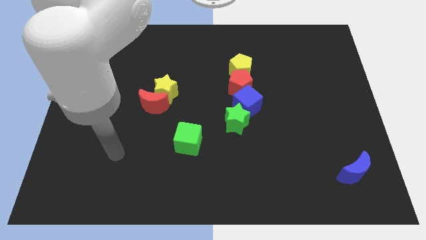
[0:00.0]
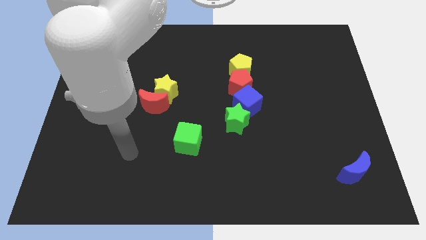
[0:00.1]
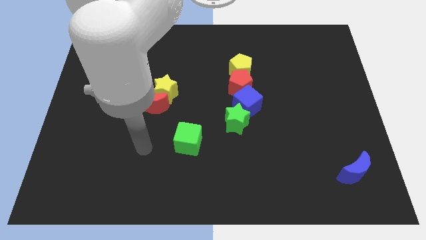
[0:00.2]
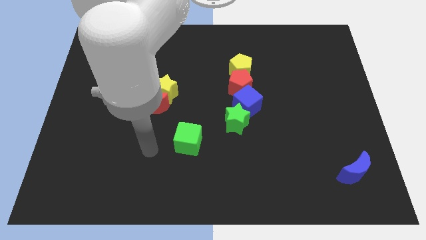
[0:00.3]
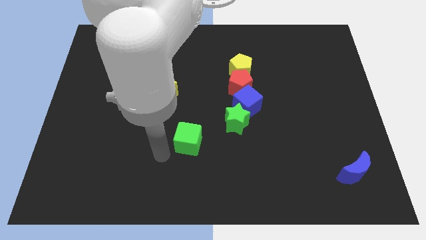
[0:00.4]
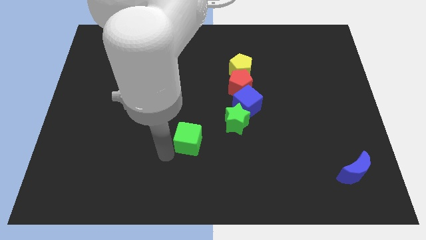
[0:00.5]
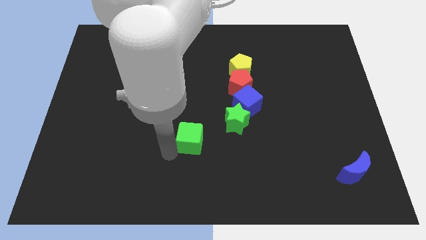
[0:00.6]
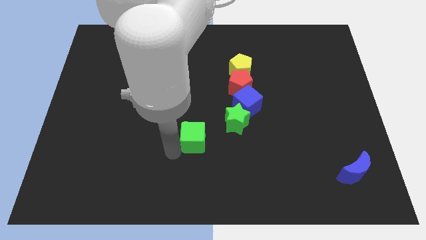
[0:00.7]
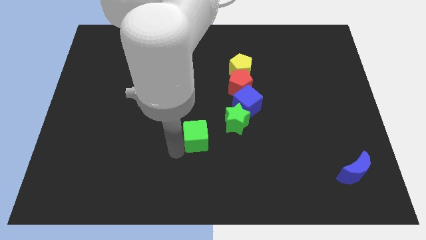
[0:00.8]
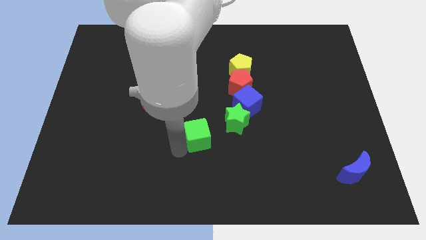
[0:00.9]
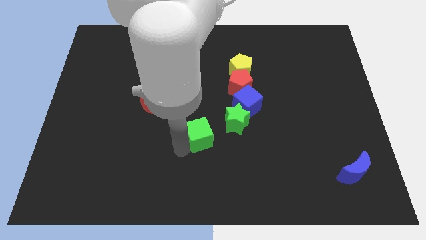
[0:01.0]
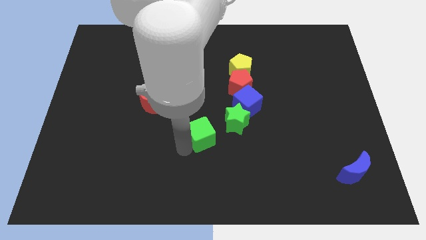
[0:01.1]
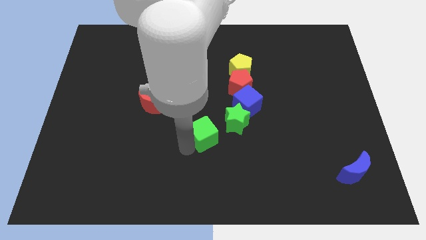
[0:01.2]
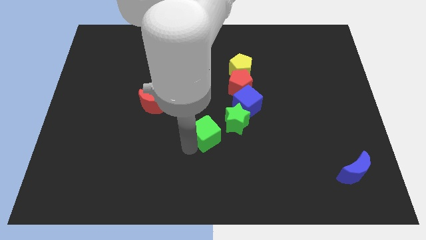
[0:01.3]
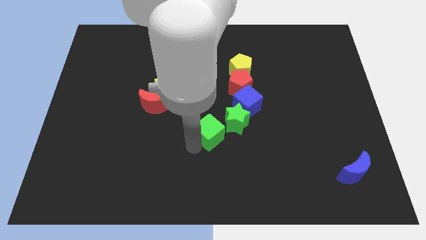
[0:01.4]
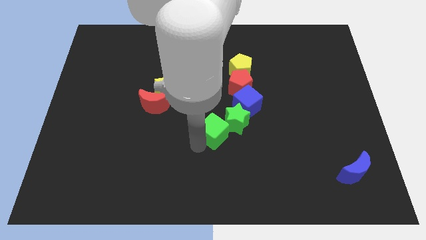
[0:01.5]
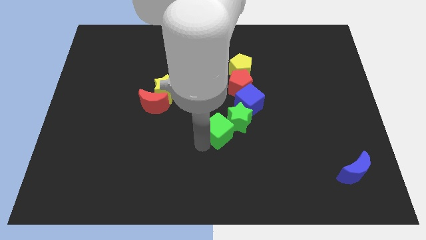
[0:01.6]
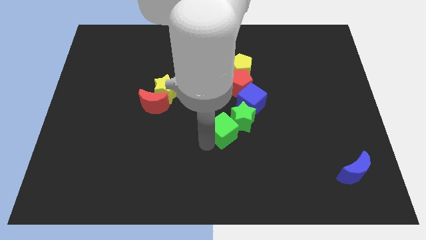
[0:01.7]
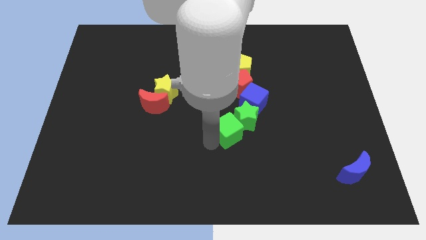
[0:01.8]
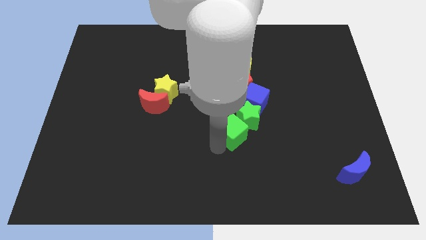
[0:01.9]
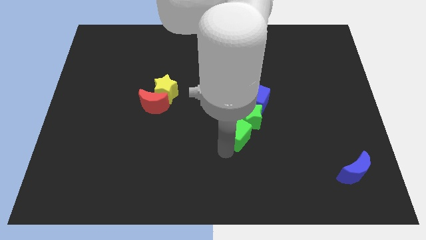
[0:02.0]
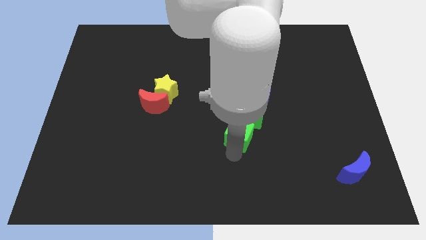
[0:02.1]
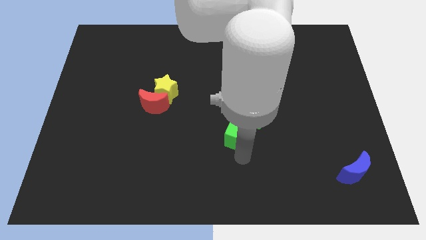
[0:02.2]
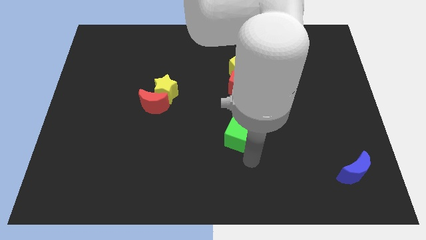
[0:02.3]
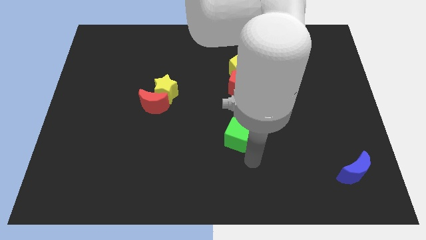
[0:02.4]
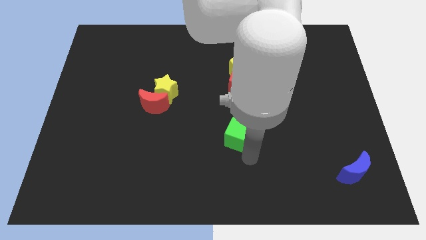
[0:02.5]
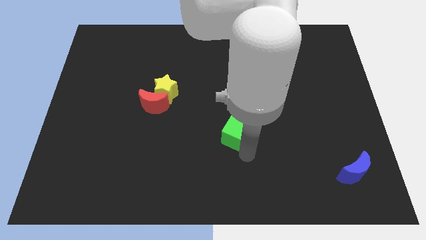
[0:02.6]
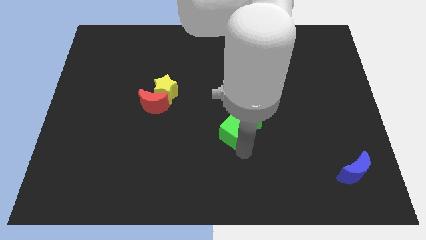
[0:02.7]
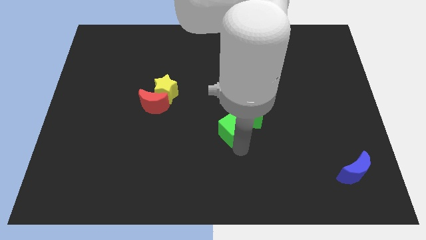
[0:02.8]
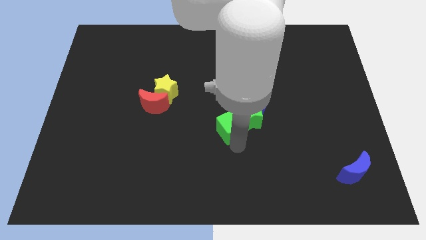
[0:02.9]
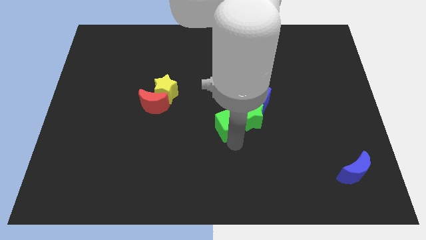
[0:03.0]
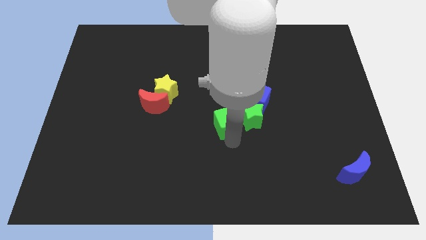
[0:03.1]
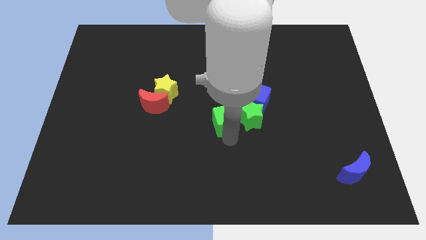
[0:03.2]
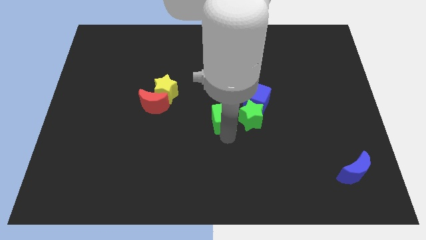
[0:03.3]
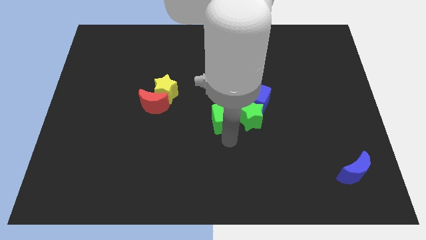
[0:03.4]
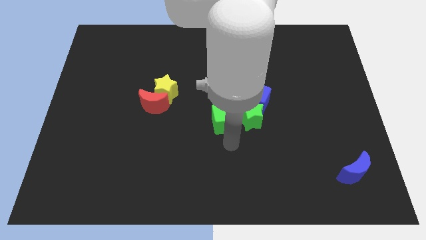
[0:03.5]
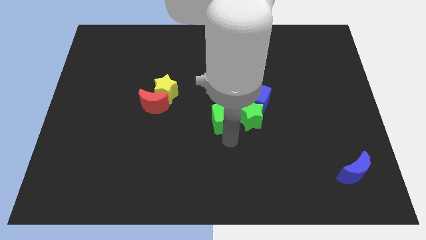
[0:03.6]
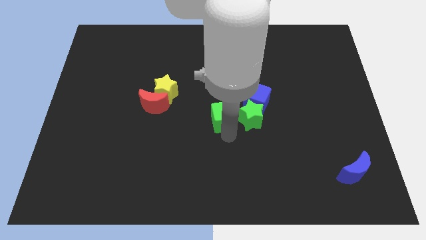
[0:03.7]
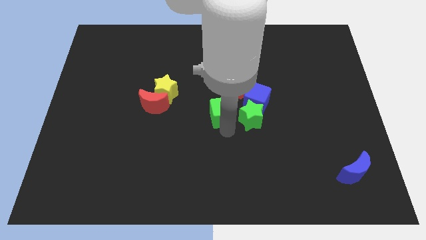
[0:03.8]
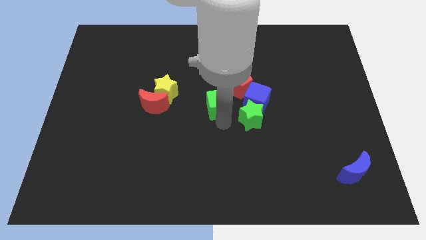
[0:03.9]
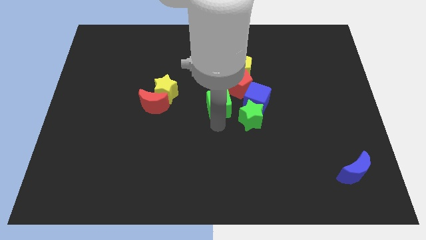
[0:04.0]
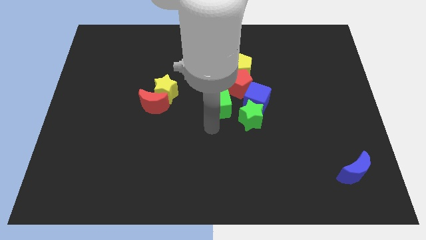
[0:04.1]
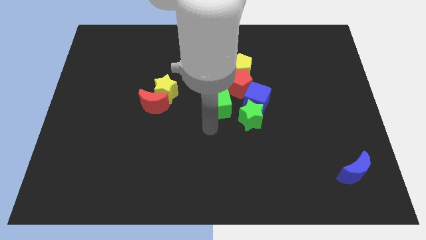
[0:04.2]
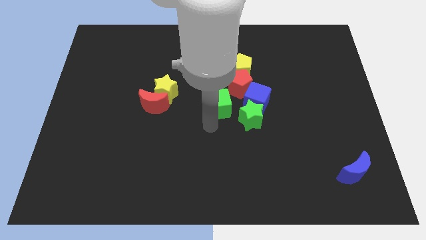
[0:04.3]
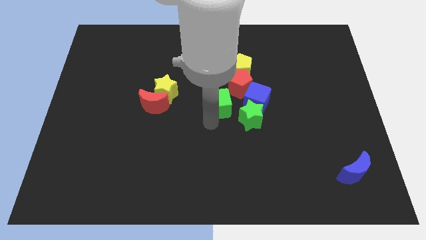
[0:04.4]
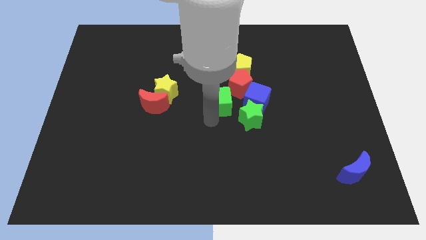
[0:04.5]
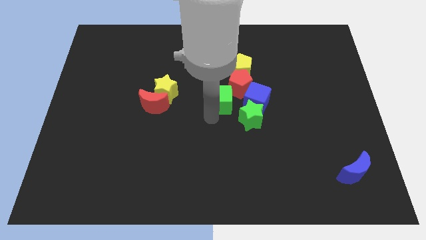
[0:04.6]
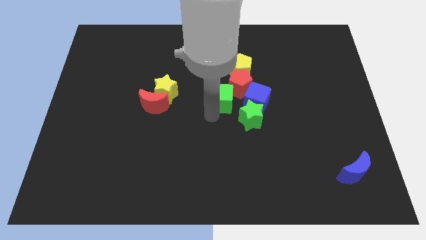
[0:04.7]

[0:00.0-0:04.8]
push the green cube next to the red pentagon

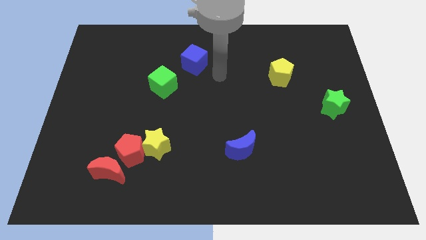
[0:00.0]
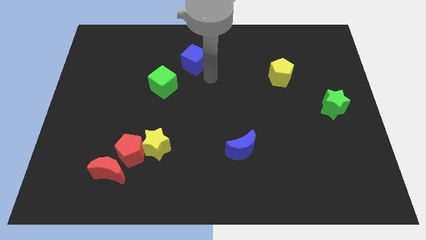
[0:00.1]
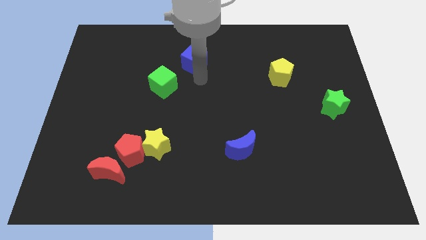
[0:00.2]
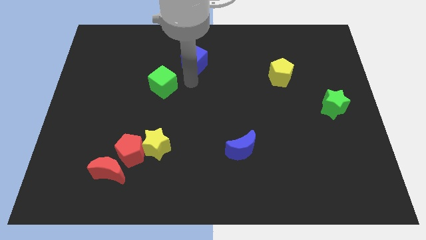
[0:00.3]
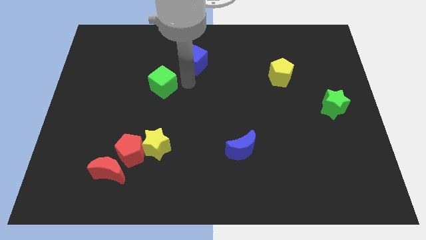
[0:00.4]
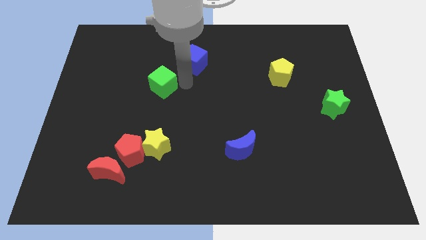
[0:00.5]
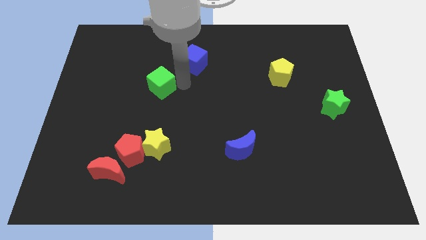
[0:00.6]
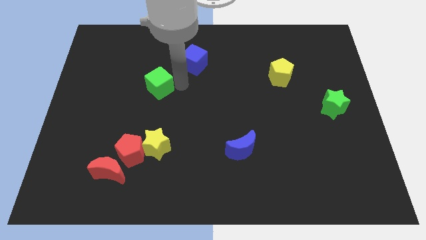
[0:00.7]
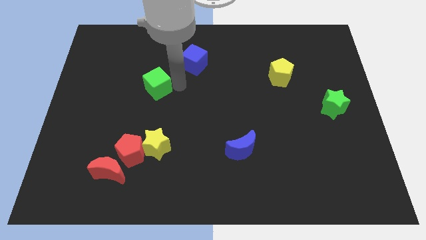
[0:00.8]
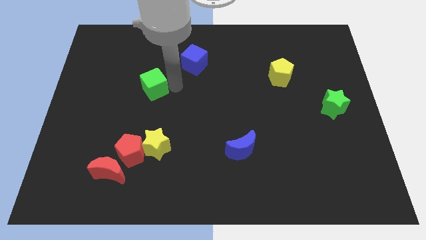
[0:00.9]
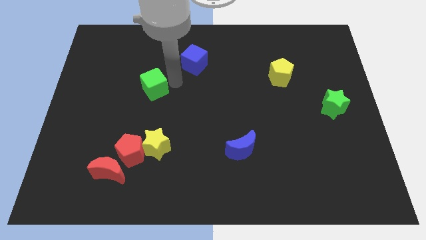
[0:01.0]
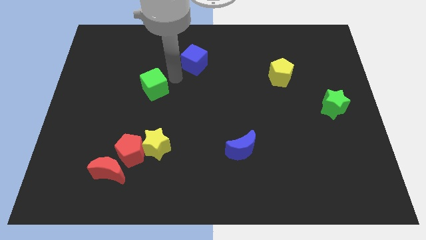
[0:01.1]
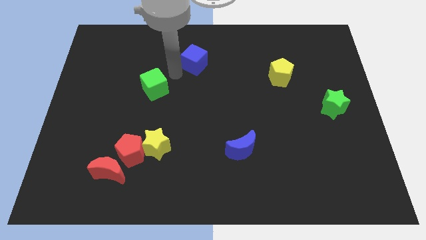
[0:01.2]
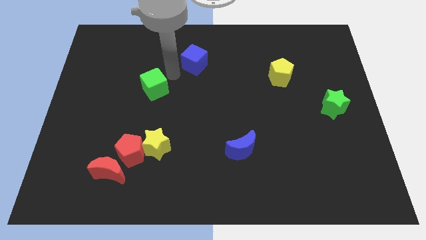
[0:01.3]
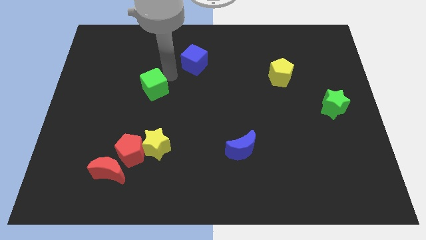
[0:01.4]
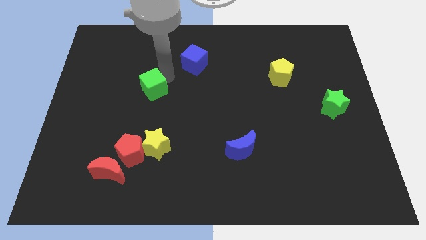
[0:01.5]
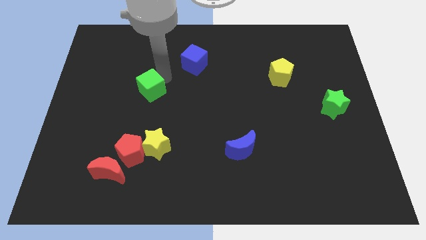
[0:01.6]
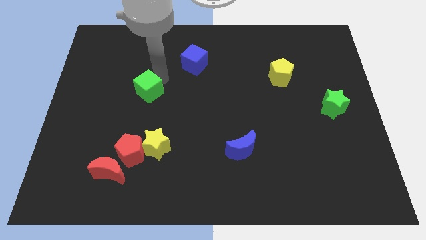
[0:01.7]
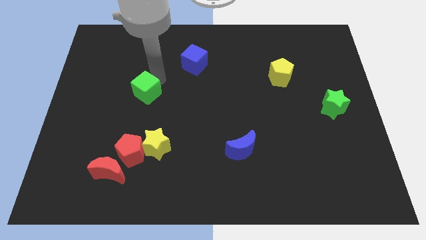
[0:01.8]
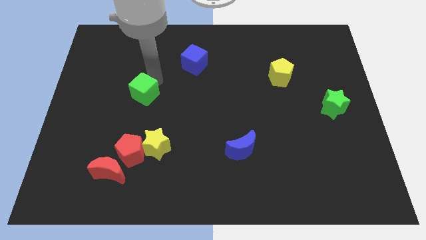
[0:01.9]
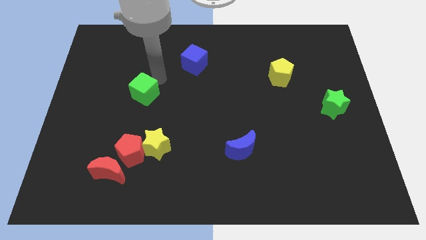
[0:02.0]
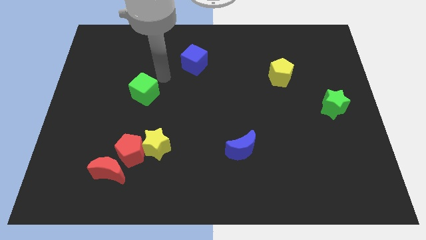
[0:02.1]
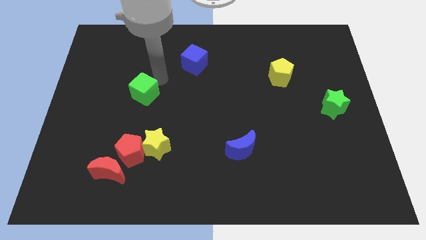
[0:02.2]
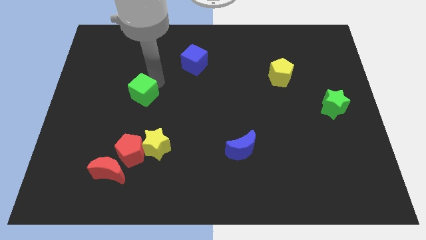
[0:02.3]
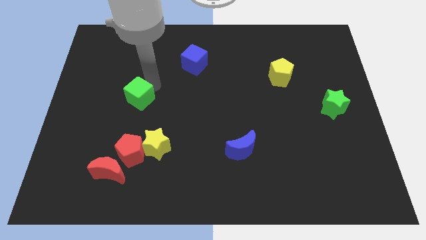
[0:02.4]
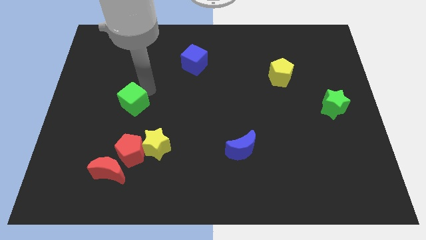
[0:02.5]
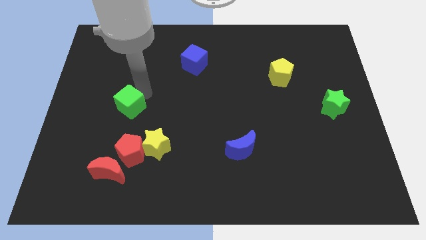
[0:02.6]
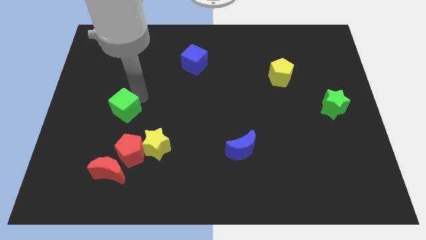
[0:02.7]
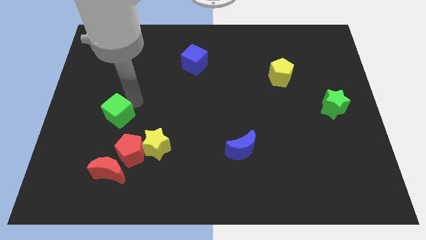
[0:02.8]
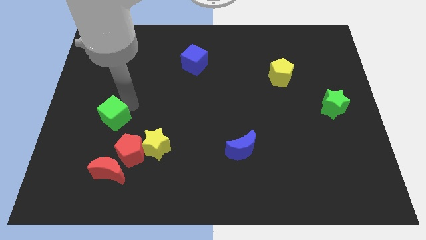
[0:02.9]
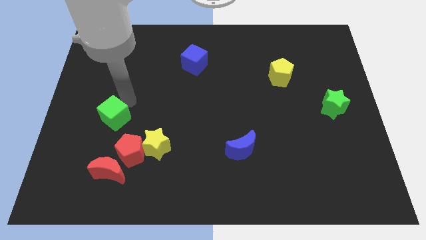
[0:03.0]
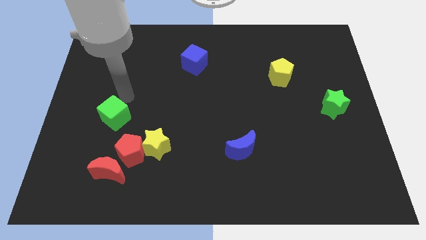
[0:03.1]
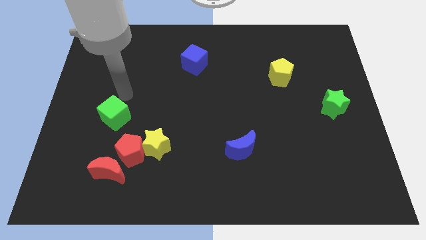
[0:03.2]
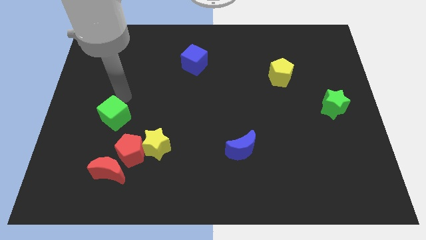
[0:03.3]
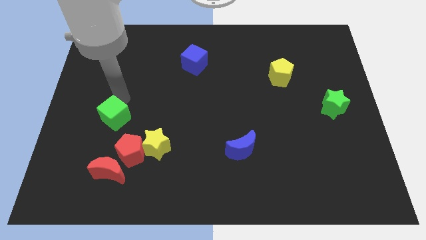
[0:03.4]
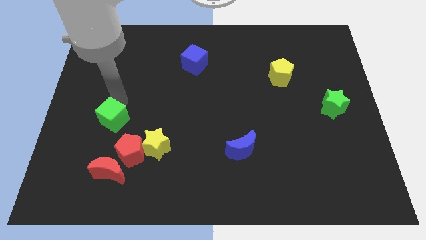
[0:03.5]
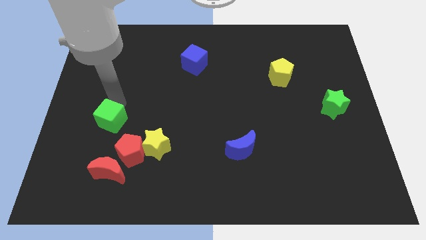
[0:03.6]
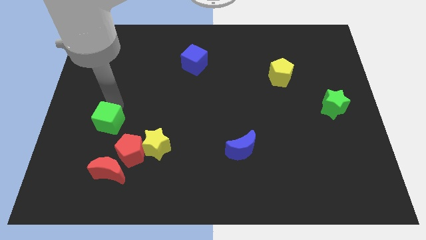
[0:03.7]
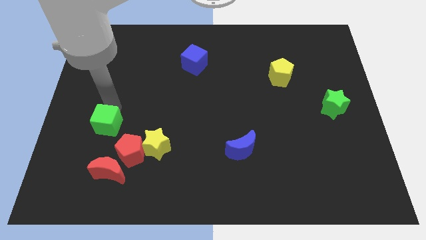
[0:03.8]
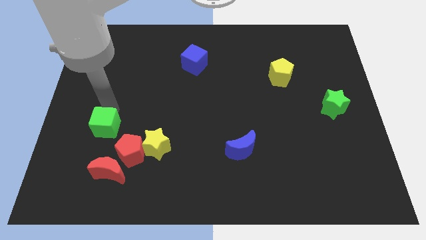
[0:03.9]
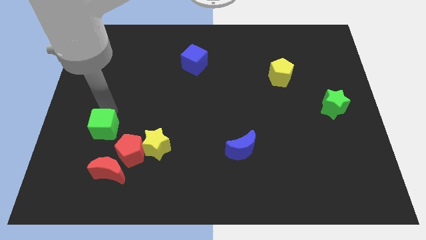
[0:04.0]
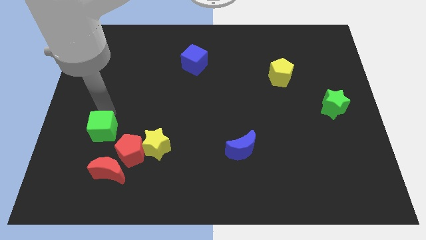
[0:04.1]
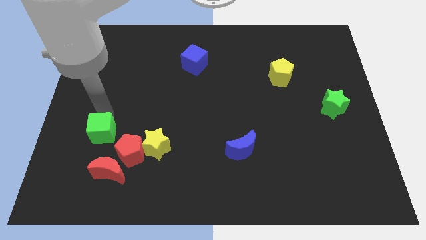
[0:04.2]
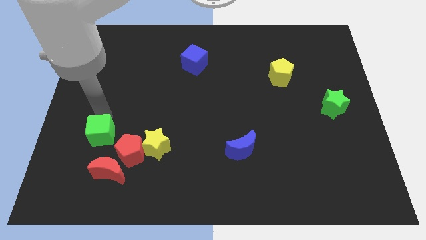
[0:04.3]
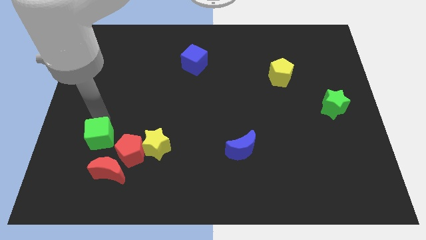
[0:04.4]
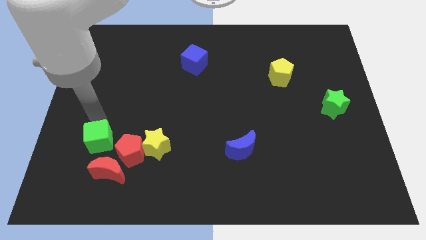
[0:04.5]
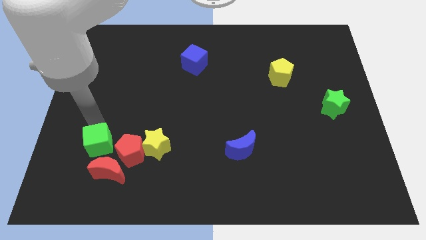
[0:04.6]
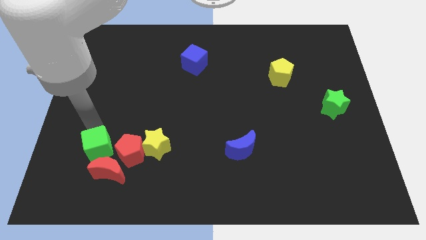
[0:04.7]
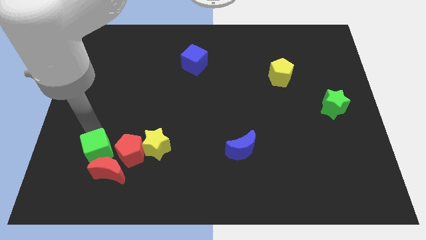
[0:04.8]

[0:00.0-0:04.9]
put the green cube close to the red moon
